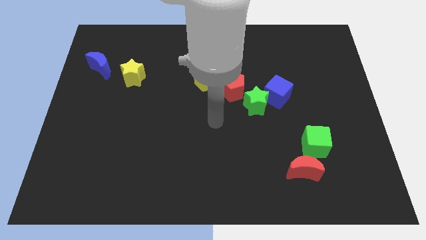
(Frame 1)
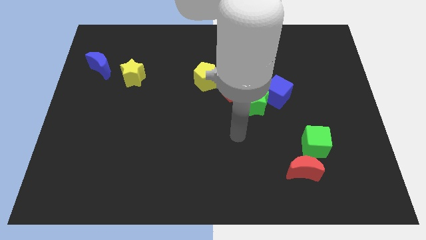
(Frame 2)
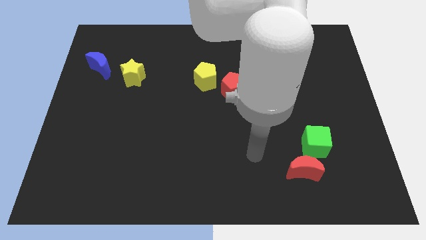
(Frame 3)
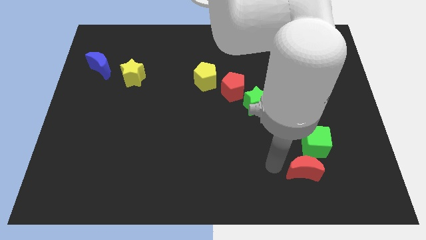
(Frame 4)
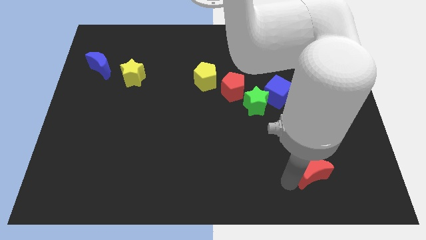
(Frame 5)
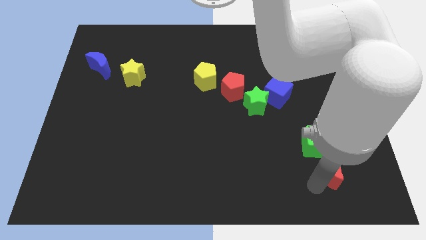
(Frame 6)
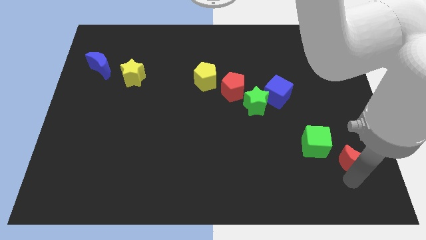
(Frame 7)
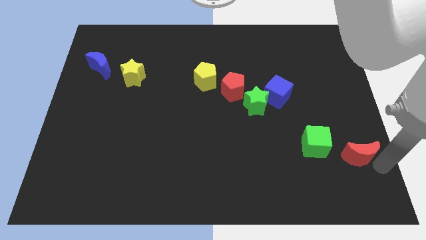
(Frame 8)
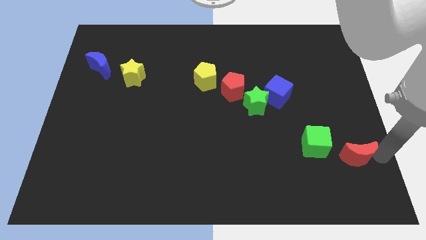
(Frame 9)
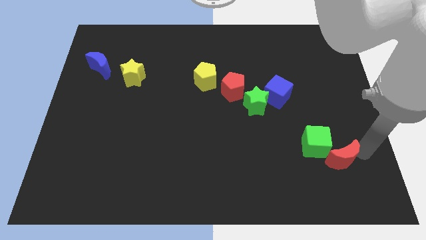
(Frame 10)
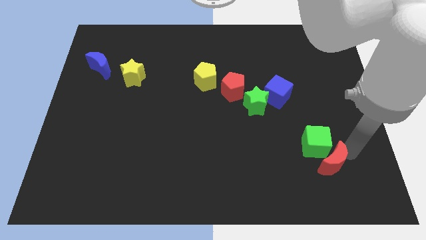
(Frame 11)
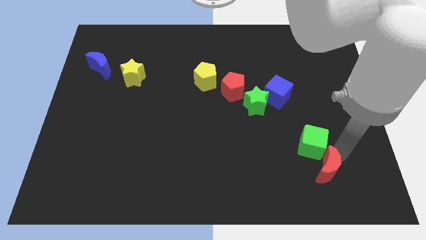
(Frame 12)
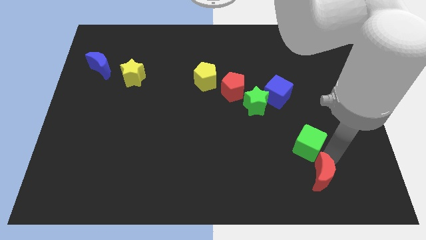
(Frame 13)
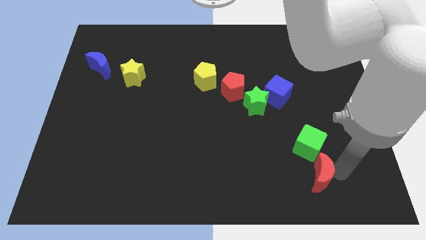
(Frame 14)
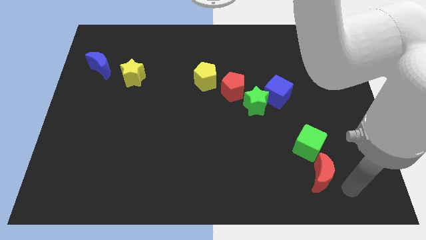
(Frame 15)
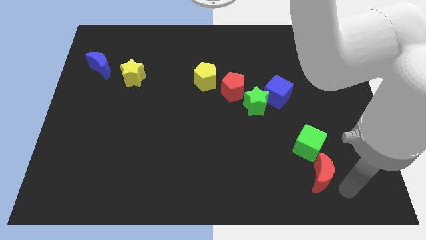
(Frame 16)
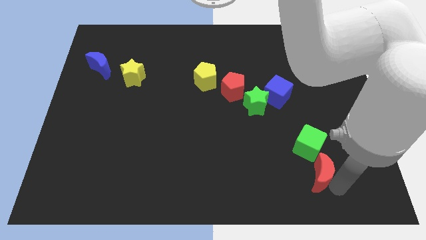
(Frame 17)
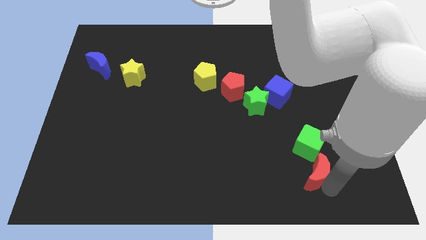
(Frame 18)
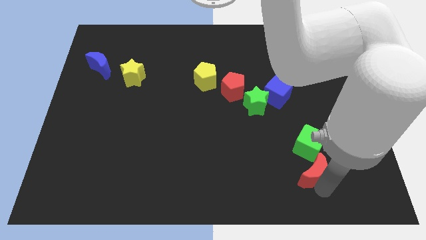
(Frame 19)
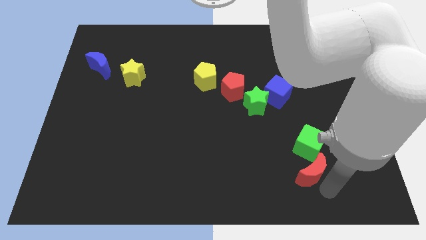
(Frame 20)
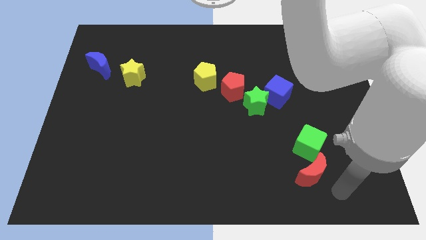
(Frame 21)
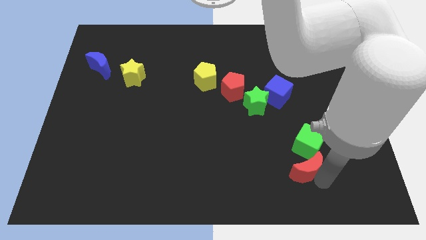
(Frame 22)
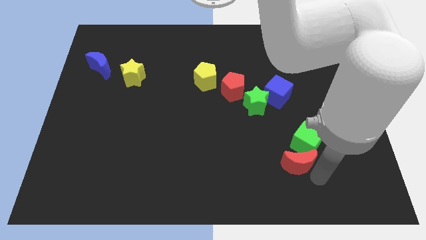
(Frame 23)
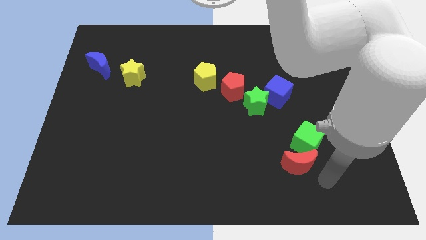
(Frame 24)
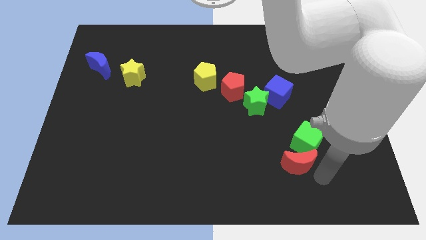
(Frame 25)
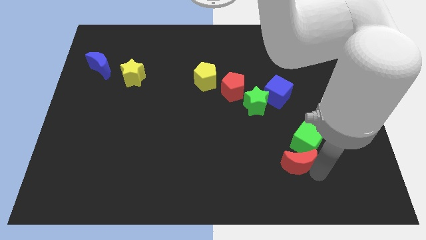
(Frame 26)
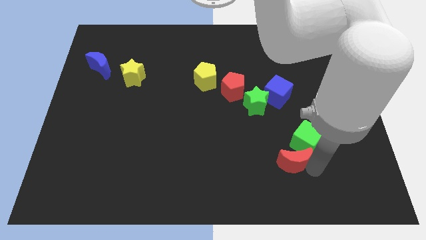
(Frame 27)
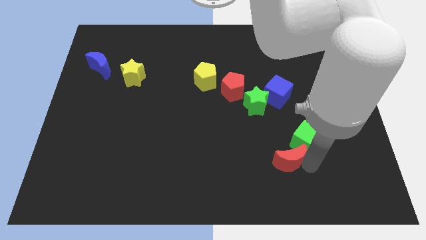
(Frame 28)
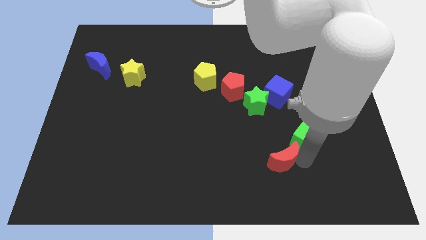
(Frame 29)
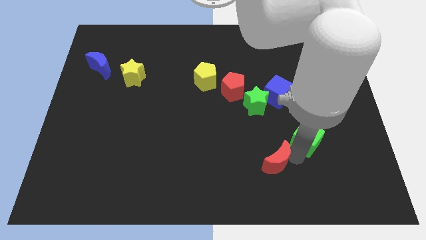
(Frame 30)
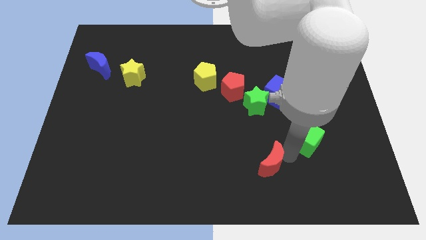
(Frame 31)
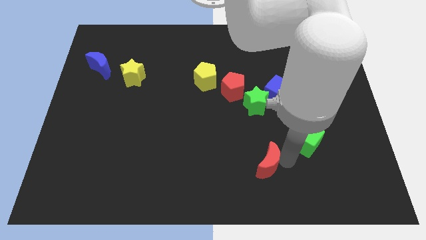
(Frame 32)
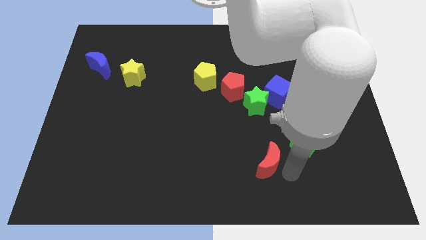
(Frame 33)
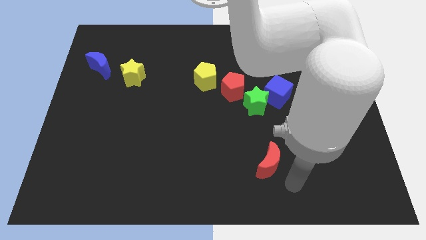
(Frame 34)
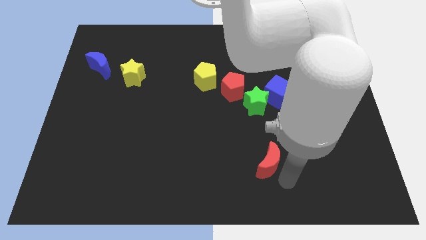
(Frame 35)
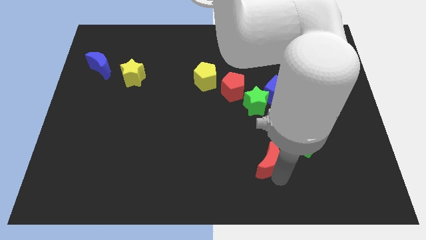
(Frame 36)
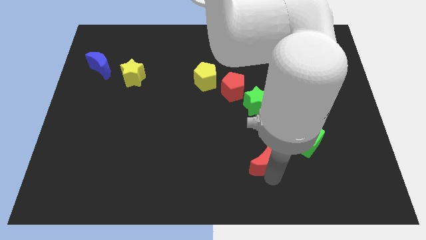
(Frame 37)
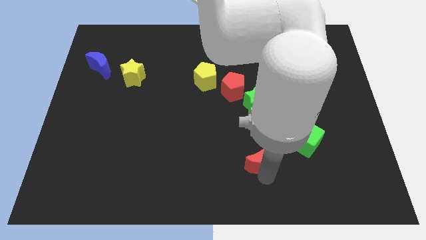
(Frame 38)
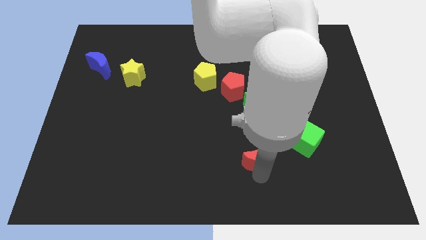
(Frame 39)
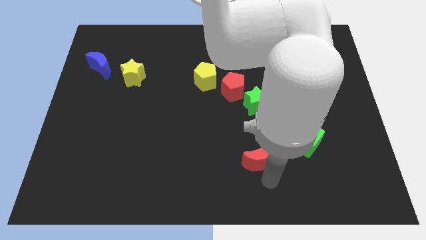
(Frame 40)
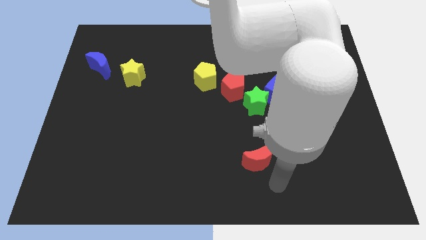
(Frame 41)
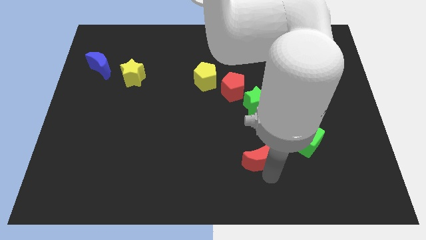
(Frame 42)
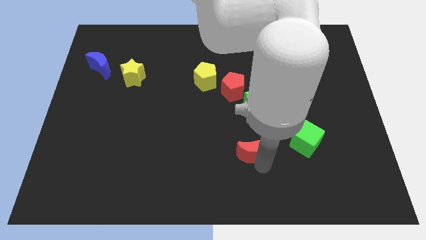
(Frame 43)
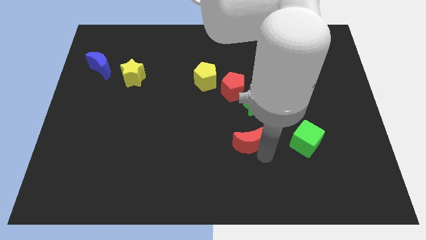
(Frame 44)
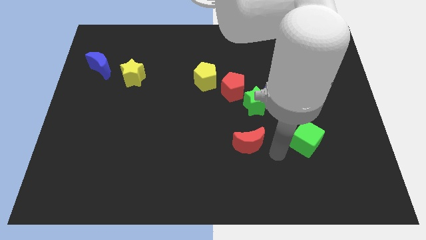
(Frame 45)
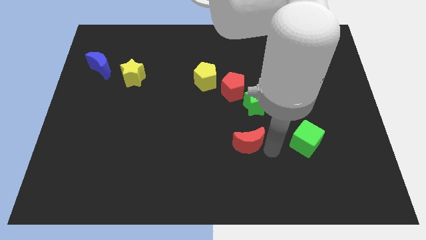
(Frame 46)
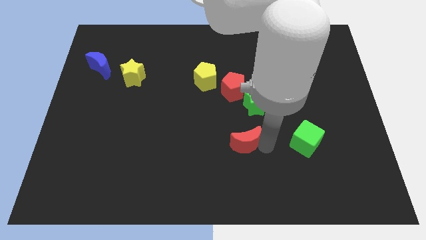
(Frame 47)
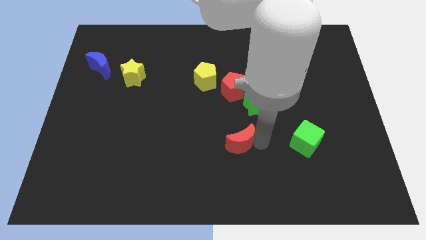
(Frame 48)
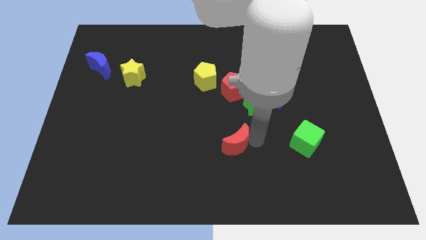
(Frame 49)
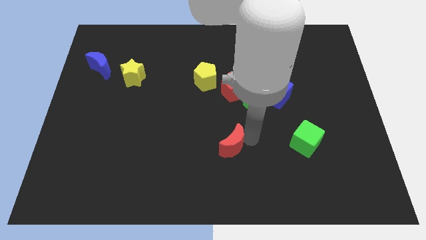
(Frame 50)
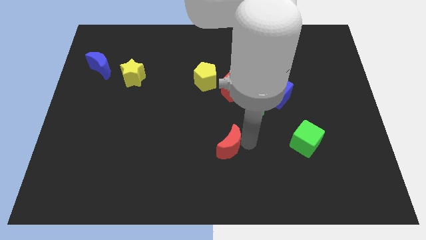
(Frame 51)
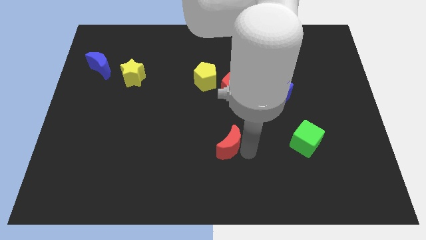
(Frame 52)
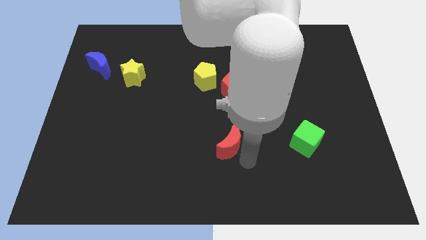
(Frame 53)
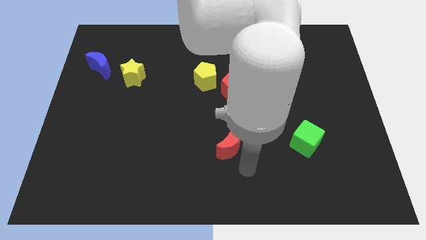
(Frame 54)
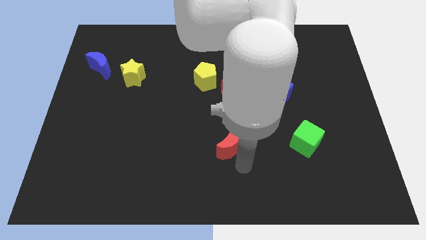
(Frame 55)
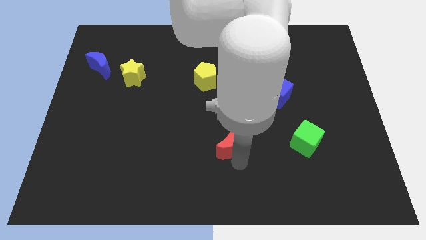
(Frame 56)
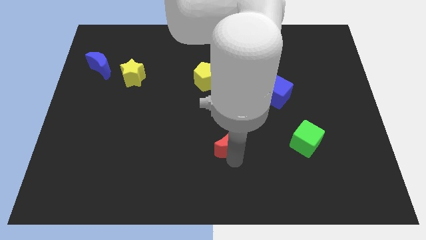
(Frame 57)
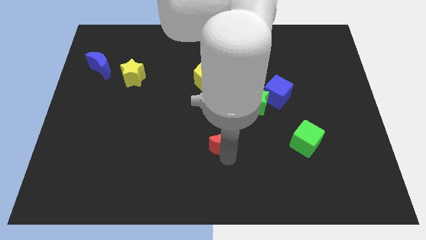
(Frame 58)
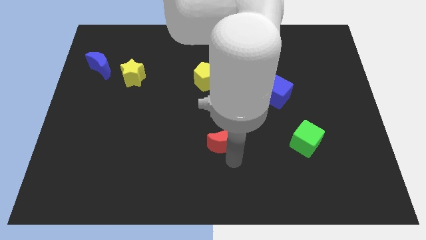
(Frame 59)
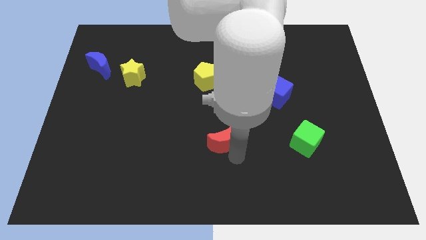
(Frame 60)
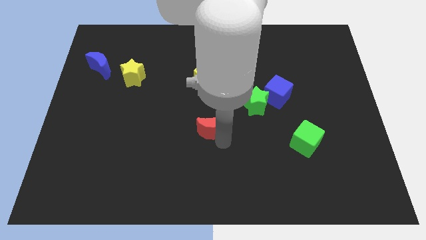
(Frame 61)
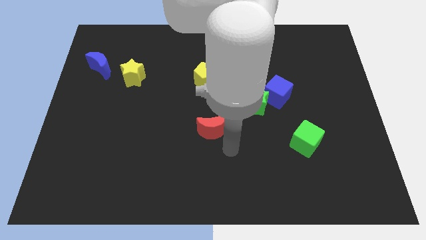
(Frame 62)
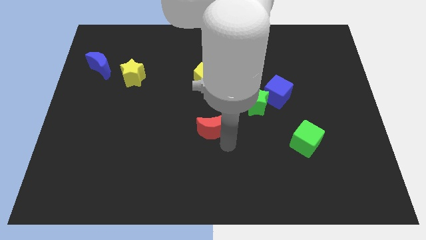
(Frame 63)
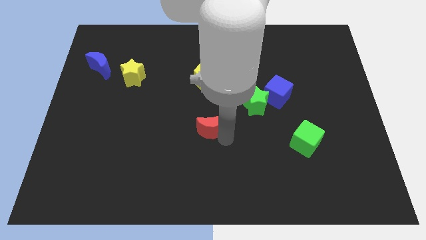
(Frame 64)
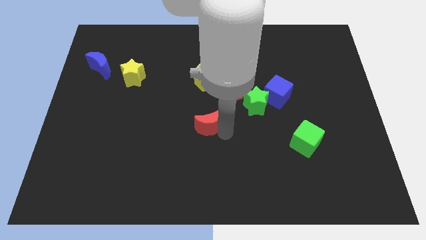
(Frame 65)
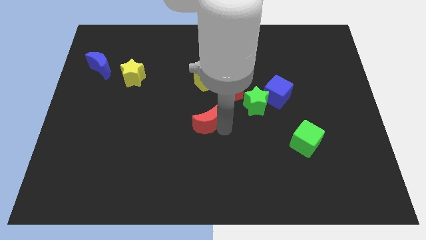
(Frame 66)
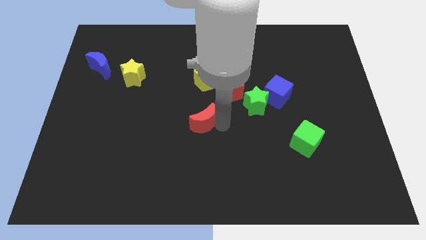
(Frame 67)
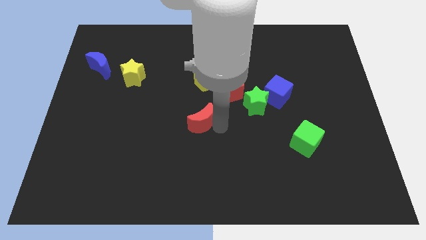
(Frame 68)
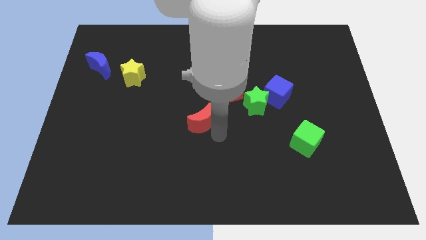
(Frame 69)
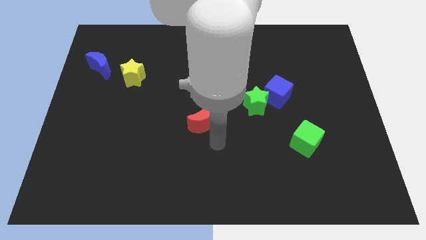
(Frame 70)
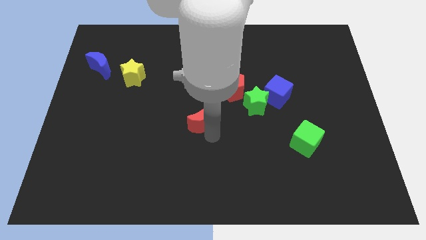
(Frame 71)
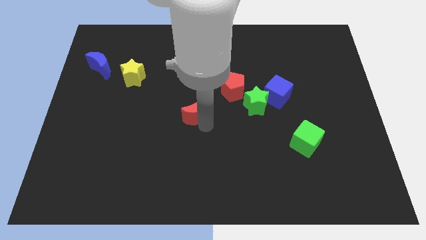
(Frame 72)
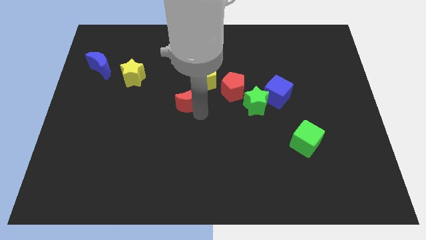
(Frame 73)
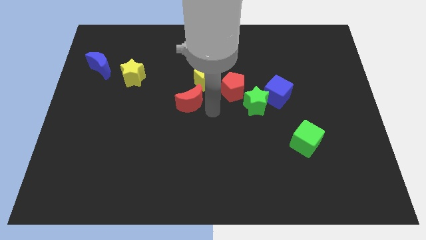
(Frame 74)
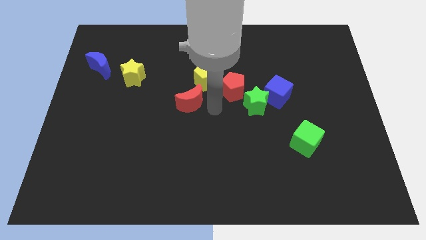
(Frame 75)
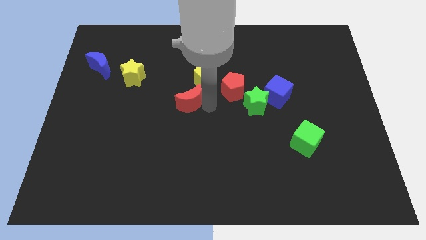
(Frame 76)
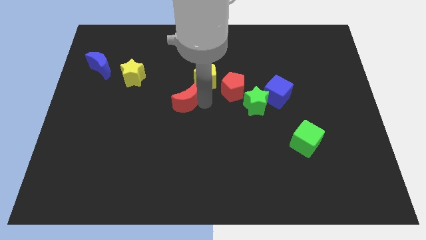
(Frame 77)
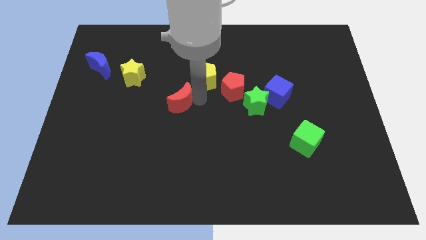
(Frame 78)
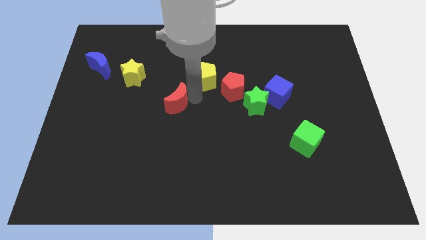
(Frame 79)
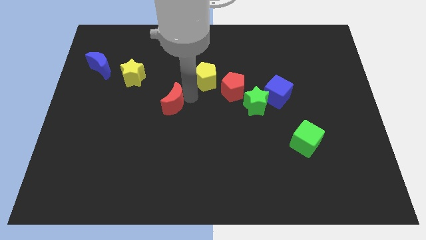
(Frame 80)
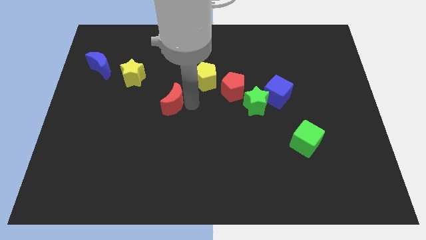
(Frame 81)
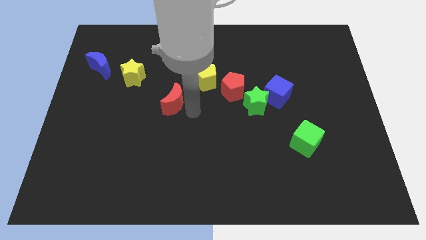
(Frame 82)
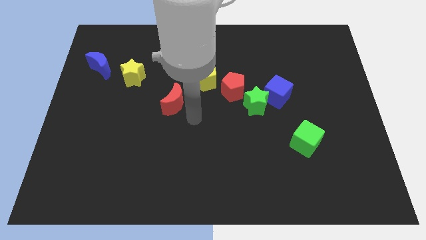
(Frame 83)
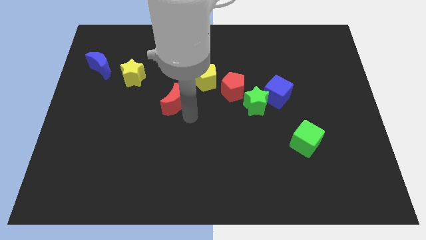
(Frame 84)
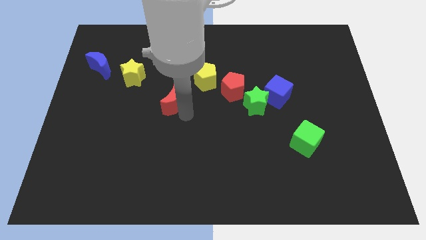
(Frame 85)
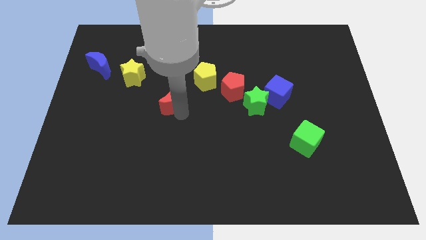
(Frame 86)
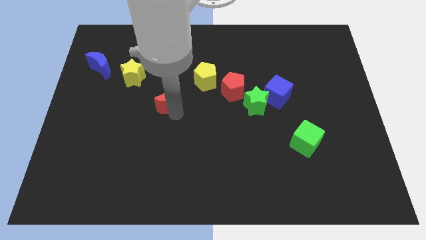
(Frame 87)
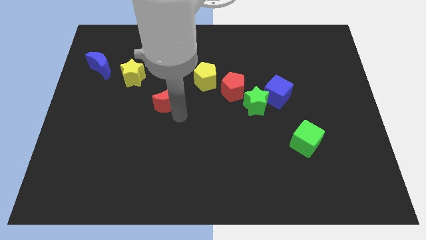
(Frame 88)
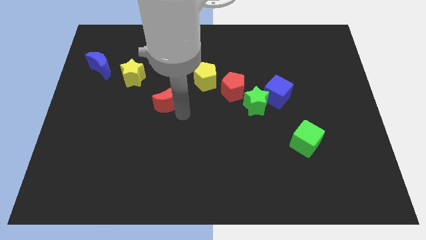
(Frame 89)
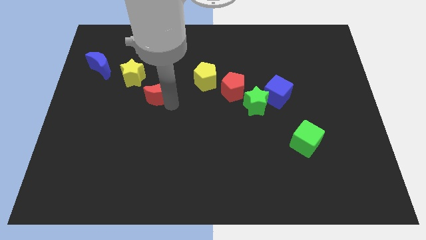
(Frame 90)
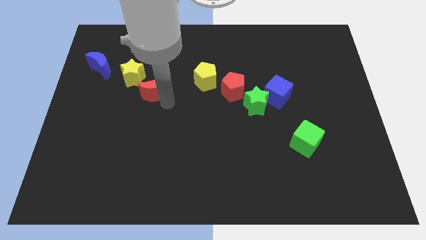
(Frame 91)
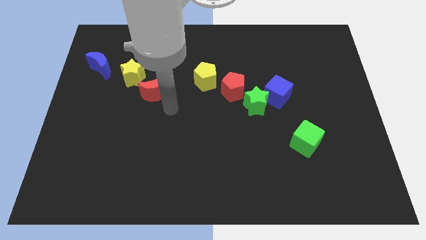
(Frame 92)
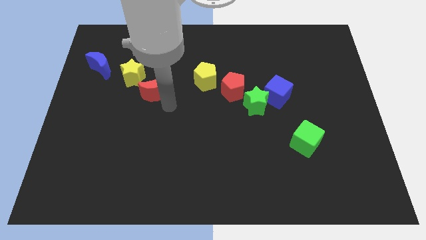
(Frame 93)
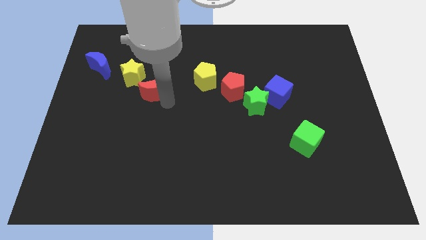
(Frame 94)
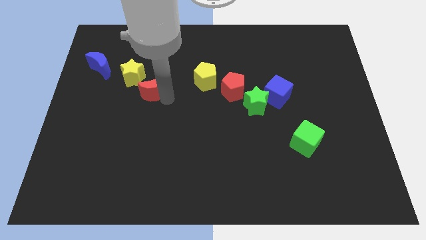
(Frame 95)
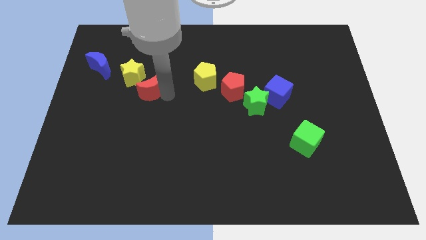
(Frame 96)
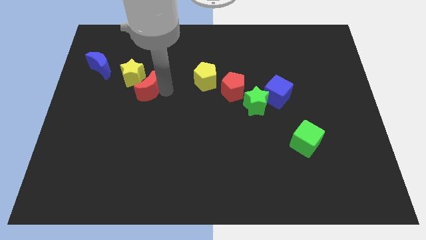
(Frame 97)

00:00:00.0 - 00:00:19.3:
put the red moon towards the yellow star
